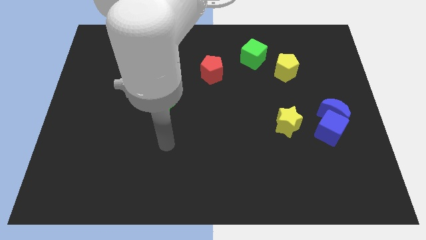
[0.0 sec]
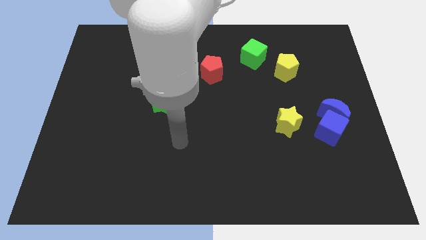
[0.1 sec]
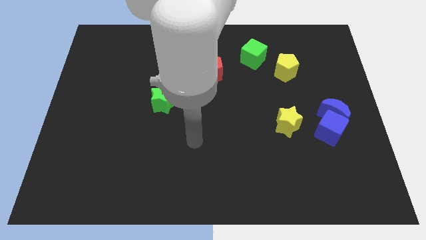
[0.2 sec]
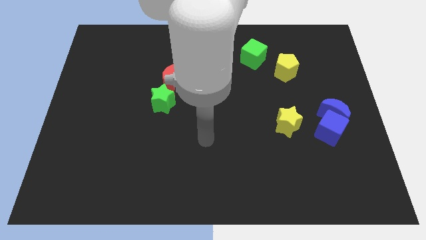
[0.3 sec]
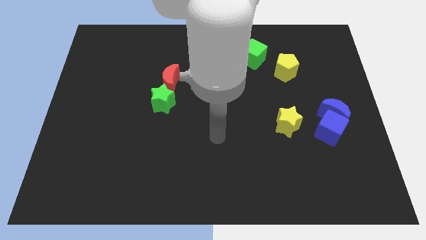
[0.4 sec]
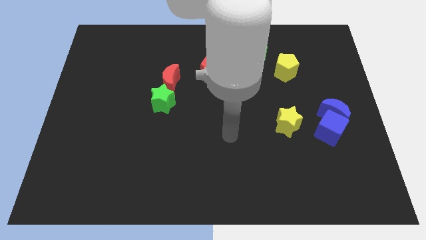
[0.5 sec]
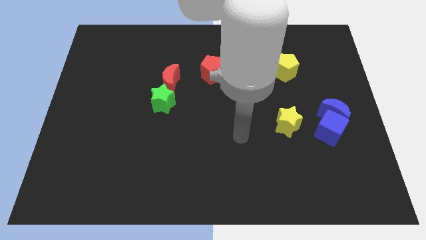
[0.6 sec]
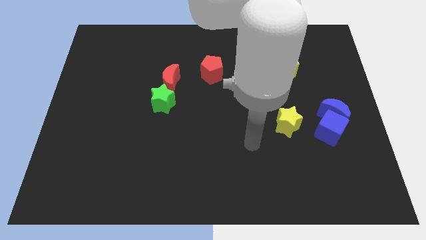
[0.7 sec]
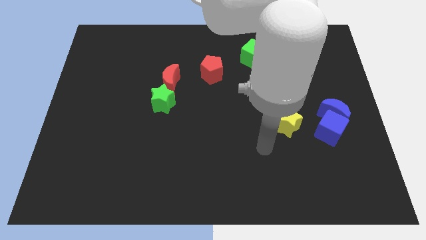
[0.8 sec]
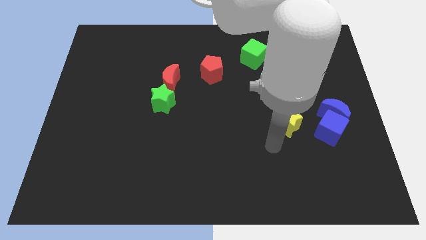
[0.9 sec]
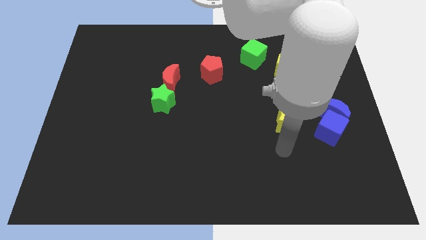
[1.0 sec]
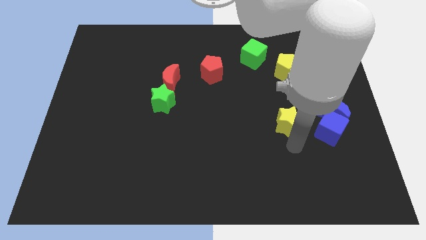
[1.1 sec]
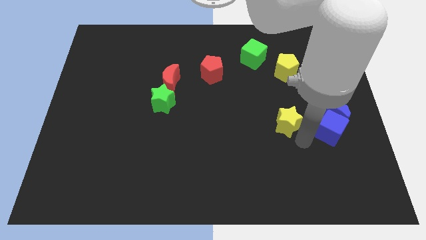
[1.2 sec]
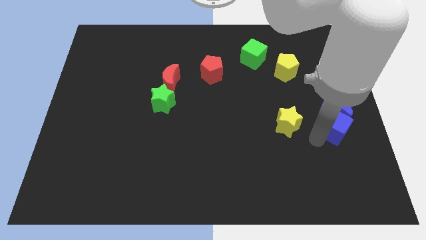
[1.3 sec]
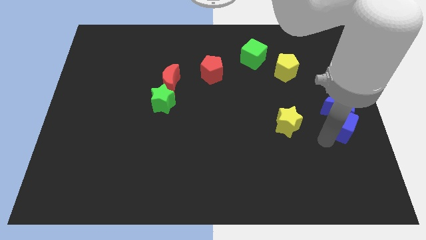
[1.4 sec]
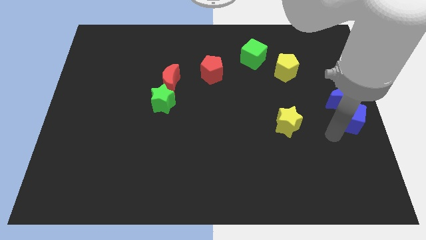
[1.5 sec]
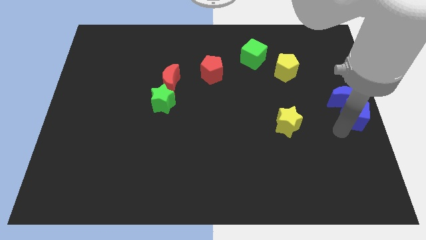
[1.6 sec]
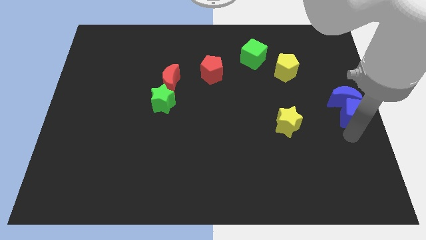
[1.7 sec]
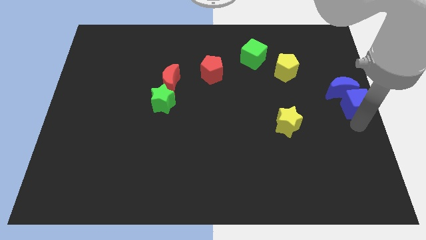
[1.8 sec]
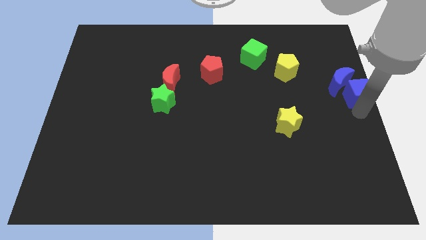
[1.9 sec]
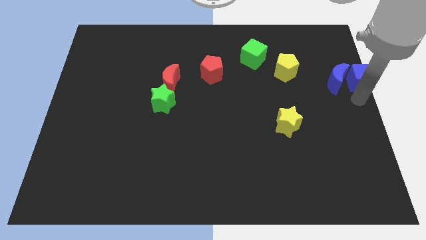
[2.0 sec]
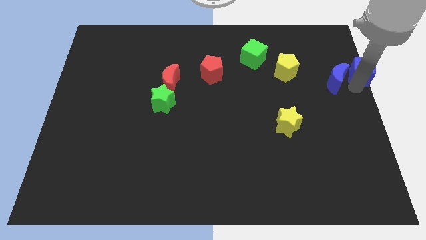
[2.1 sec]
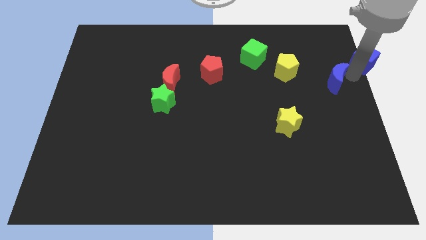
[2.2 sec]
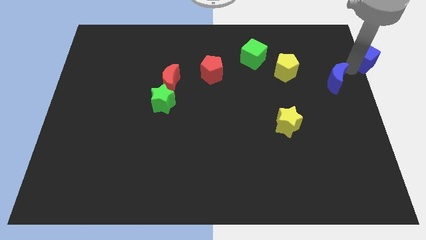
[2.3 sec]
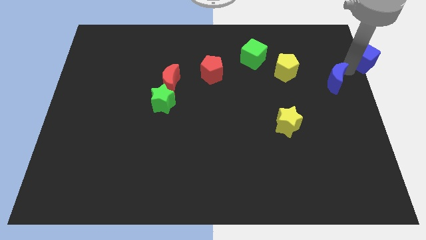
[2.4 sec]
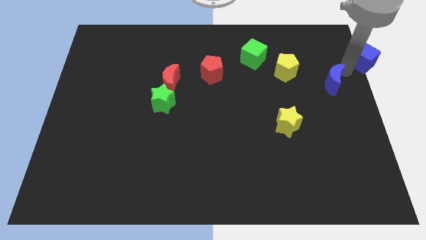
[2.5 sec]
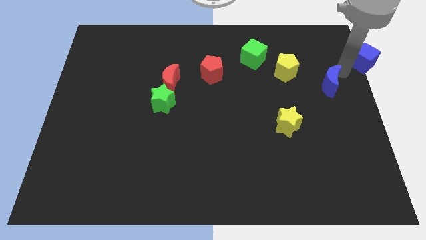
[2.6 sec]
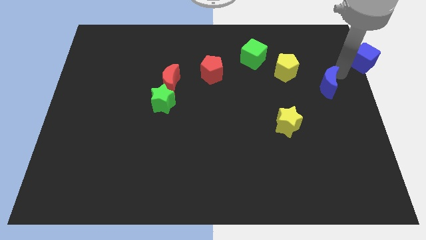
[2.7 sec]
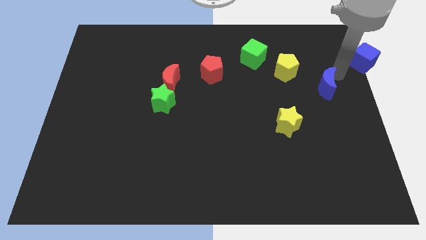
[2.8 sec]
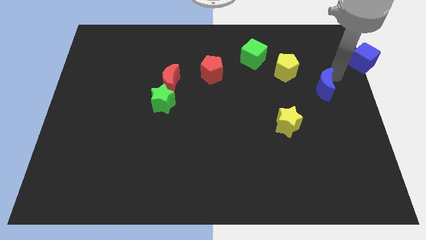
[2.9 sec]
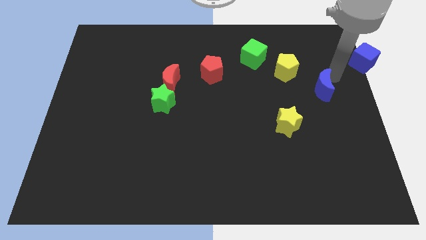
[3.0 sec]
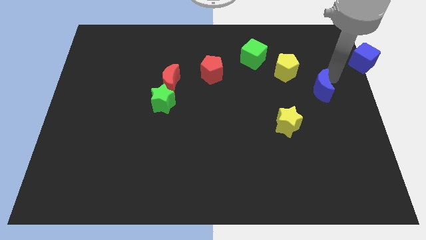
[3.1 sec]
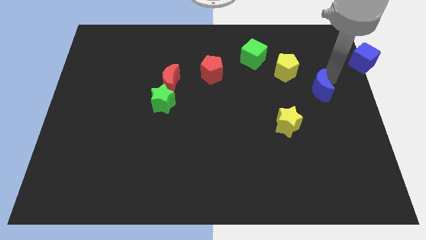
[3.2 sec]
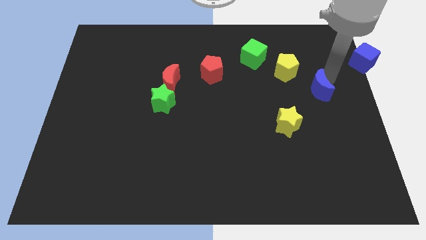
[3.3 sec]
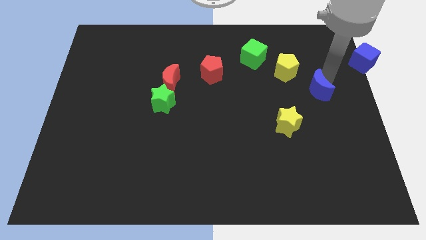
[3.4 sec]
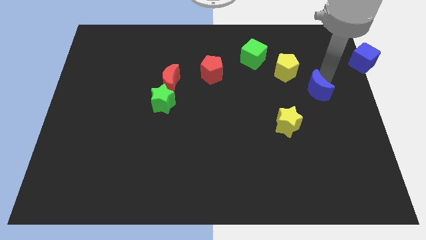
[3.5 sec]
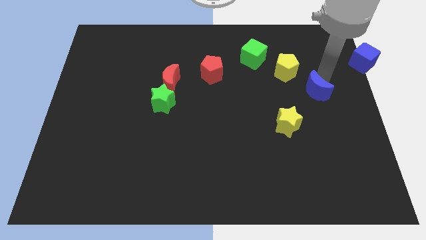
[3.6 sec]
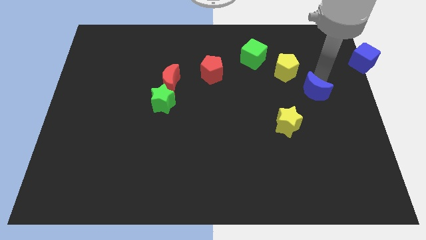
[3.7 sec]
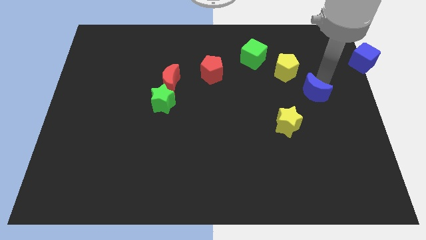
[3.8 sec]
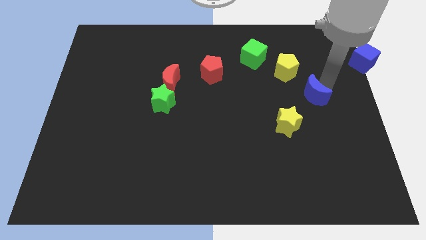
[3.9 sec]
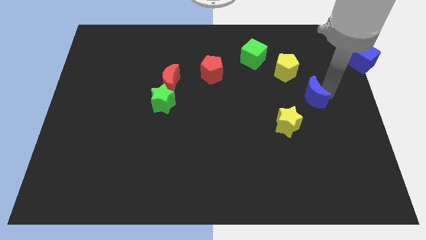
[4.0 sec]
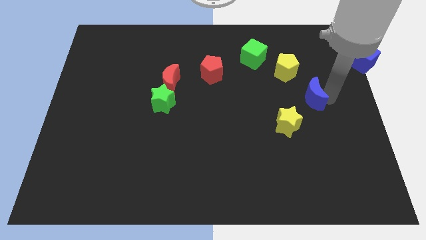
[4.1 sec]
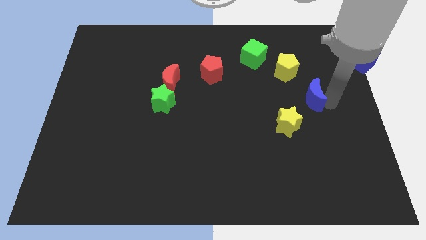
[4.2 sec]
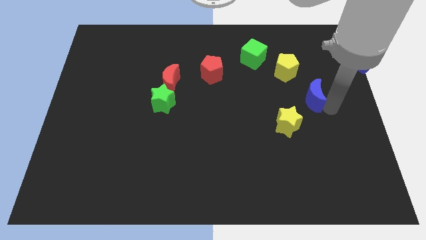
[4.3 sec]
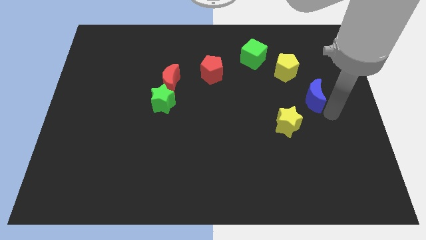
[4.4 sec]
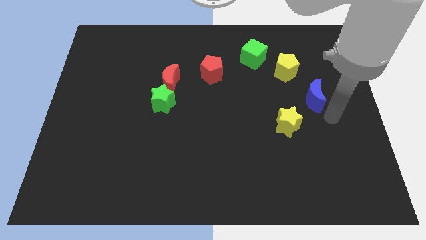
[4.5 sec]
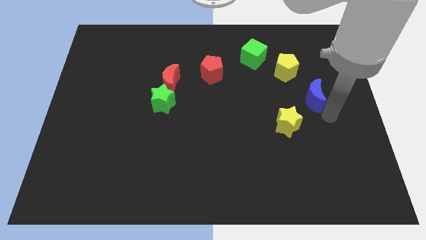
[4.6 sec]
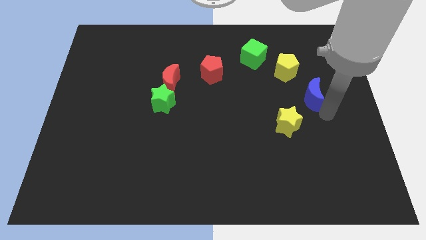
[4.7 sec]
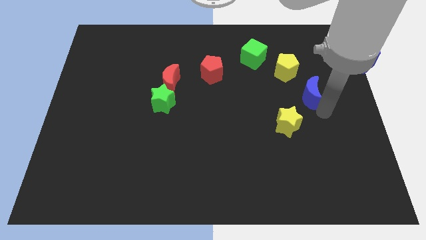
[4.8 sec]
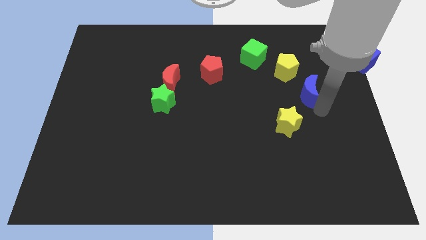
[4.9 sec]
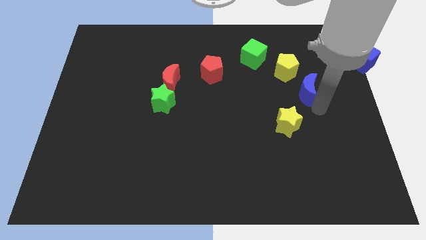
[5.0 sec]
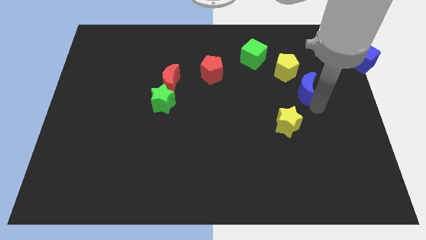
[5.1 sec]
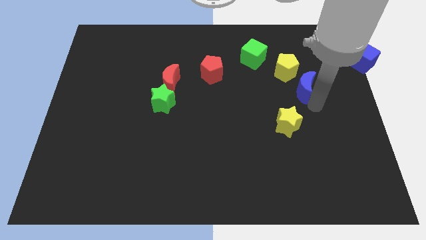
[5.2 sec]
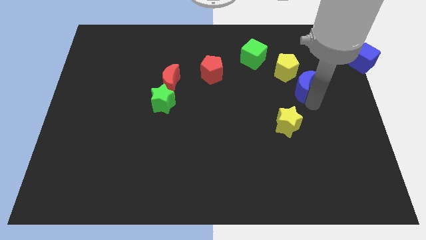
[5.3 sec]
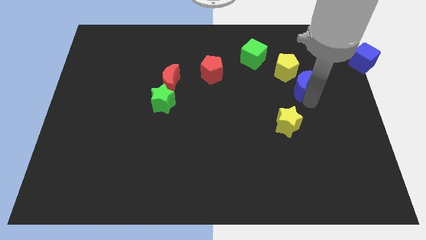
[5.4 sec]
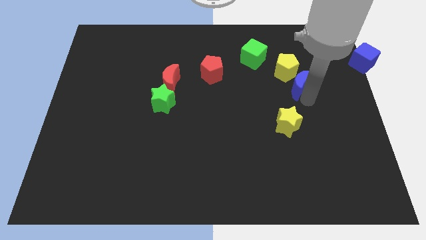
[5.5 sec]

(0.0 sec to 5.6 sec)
put the blue moon towards the yellow pentagon

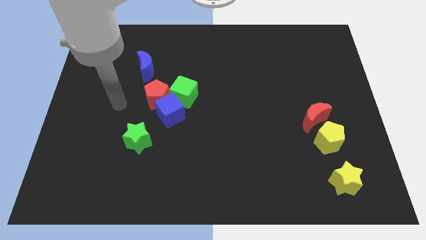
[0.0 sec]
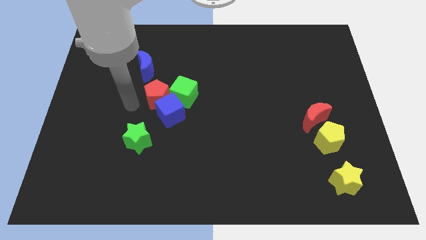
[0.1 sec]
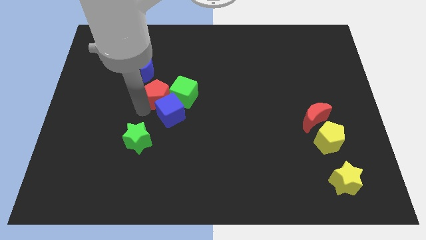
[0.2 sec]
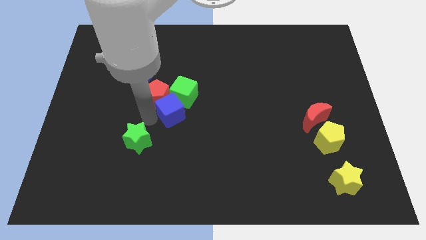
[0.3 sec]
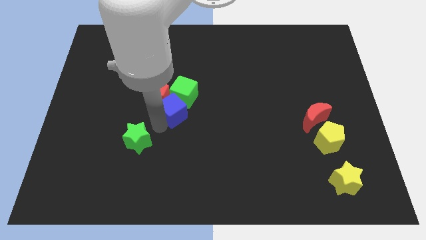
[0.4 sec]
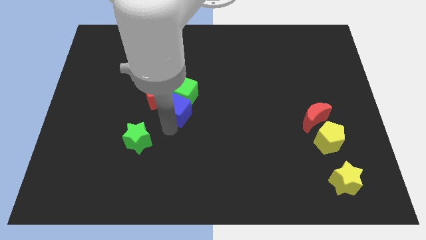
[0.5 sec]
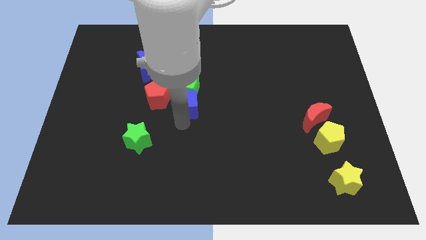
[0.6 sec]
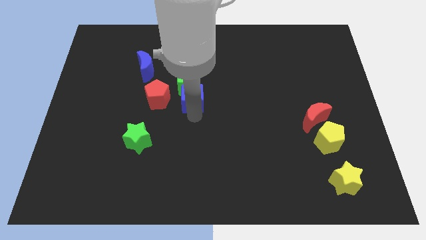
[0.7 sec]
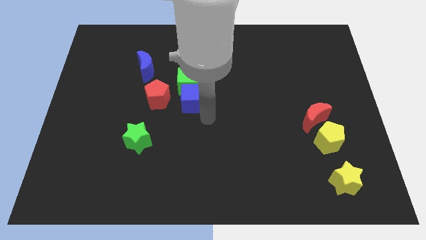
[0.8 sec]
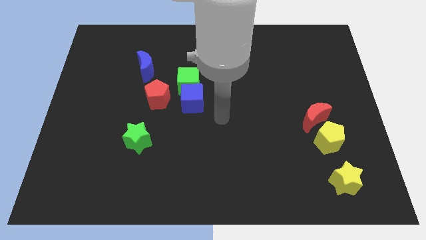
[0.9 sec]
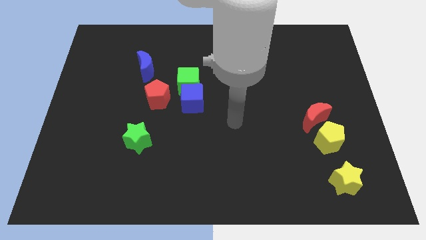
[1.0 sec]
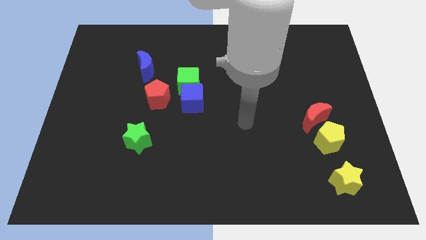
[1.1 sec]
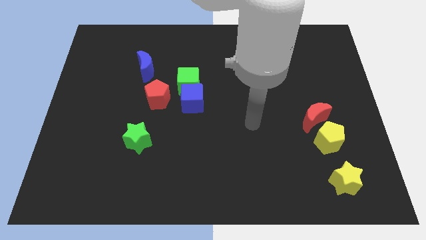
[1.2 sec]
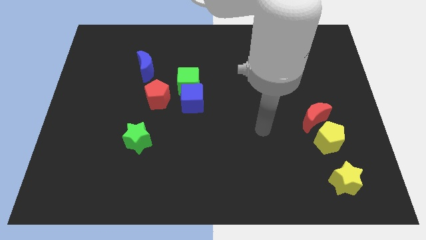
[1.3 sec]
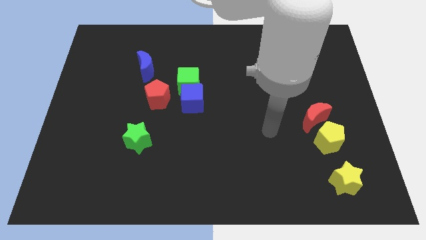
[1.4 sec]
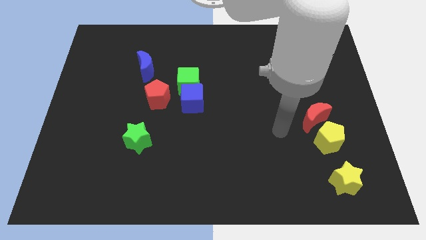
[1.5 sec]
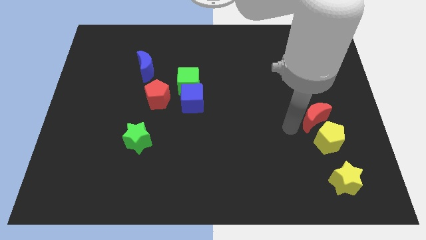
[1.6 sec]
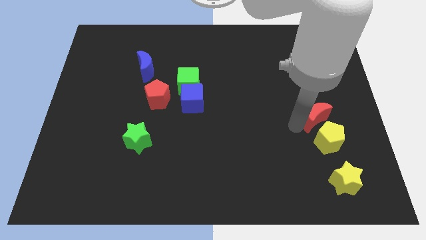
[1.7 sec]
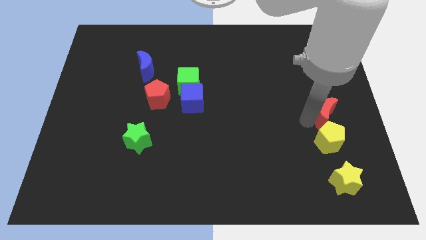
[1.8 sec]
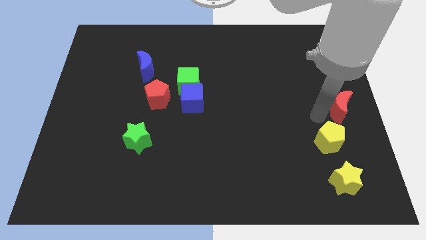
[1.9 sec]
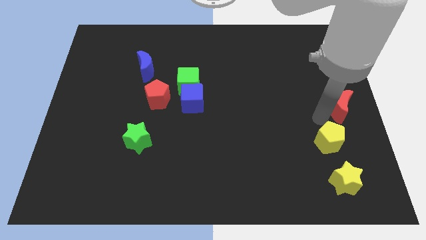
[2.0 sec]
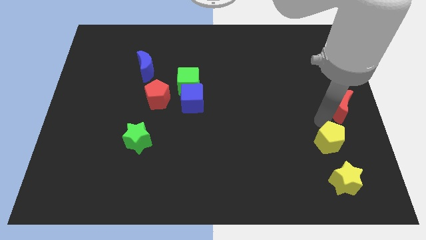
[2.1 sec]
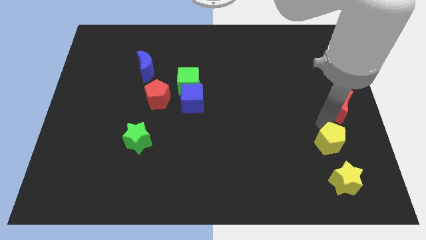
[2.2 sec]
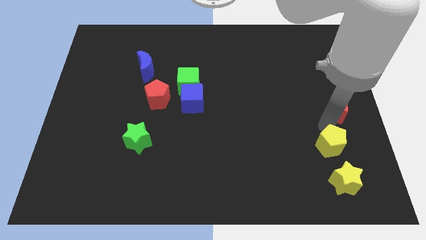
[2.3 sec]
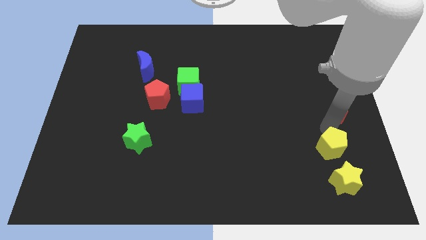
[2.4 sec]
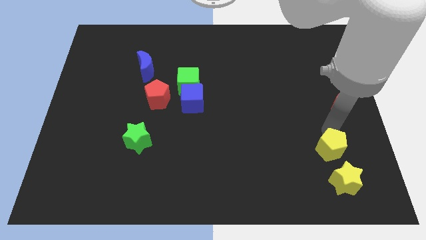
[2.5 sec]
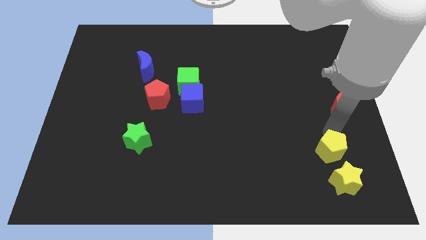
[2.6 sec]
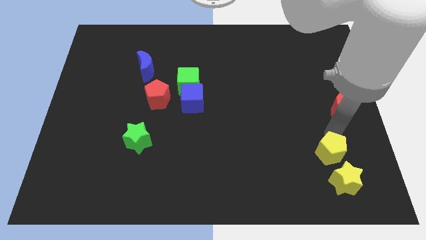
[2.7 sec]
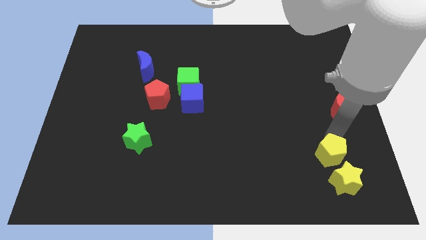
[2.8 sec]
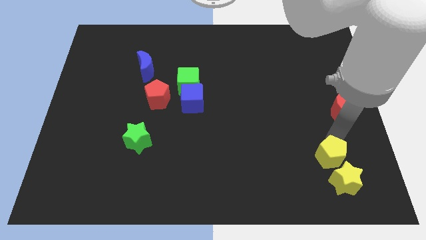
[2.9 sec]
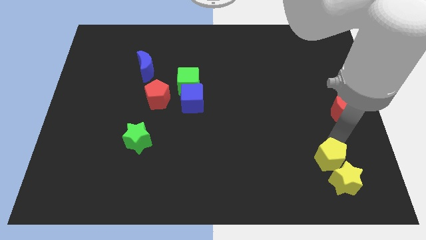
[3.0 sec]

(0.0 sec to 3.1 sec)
move the yellow pentagon close to the yellow star
